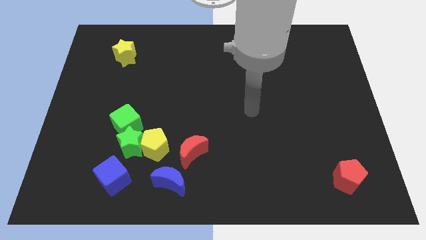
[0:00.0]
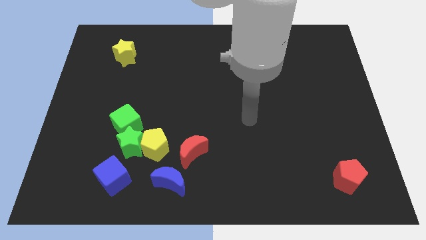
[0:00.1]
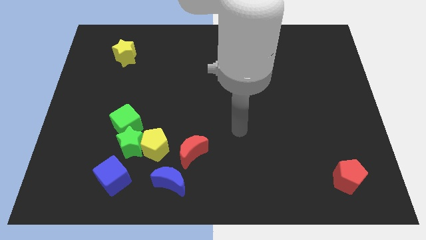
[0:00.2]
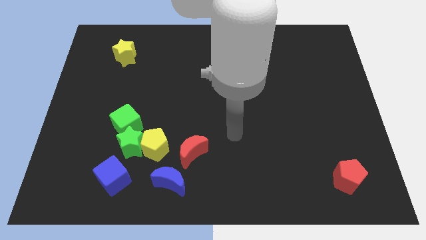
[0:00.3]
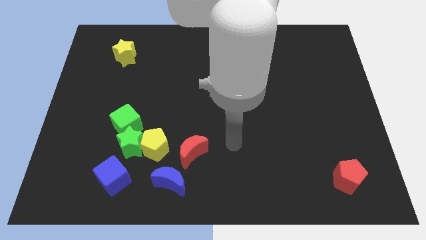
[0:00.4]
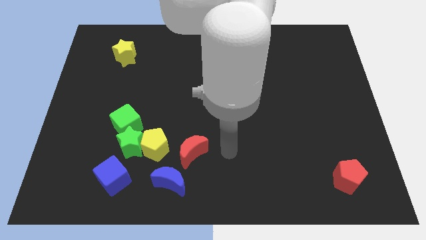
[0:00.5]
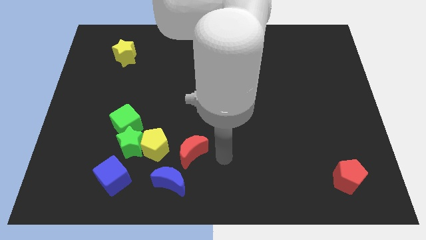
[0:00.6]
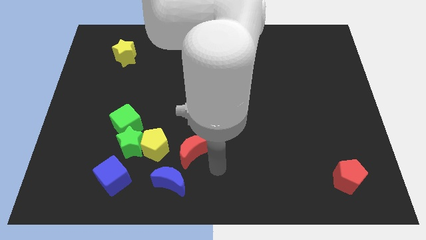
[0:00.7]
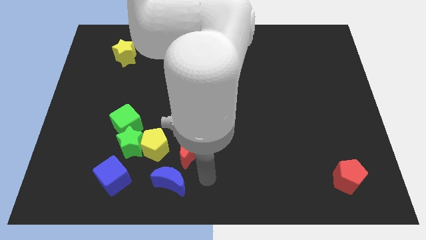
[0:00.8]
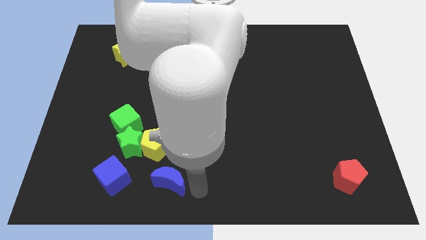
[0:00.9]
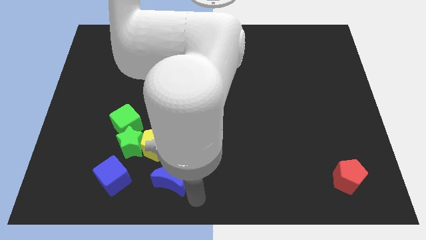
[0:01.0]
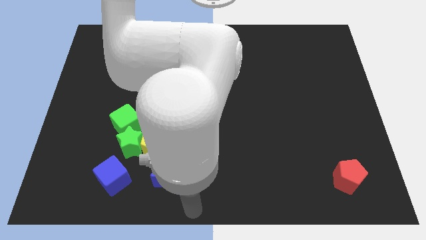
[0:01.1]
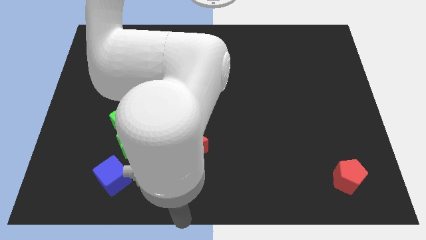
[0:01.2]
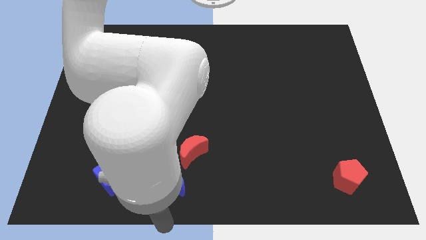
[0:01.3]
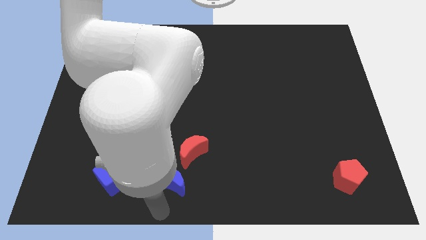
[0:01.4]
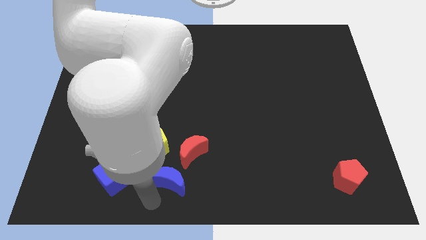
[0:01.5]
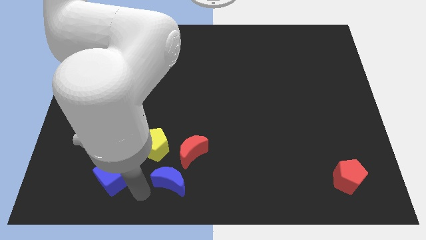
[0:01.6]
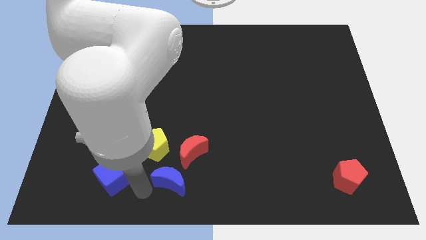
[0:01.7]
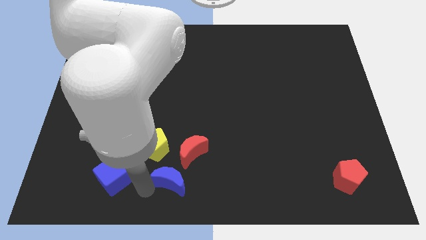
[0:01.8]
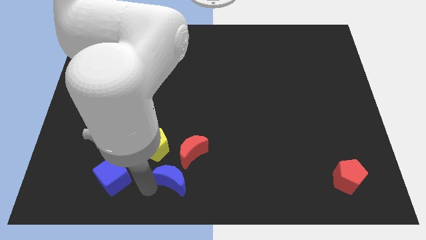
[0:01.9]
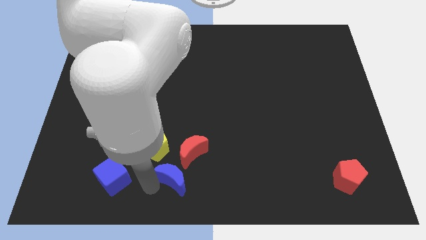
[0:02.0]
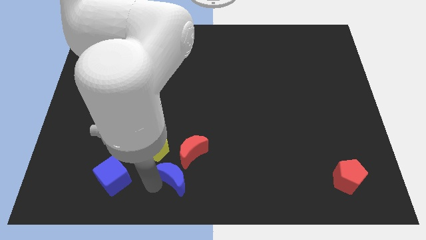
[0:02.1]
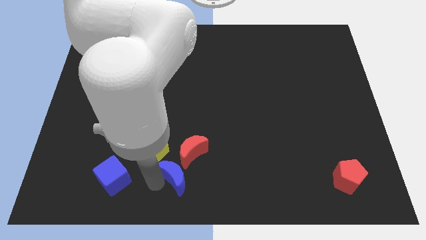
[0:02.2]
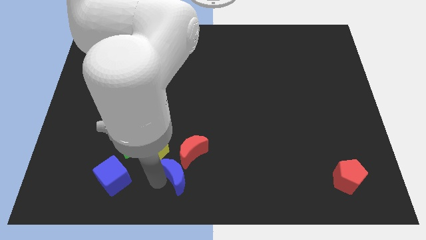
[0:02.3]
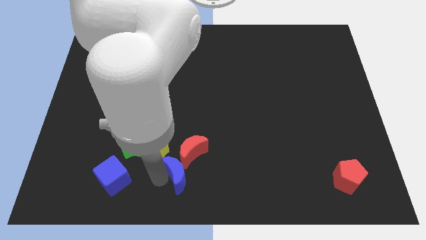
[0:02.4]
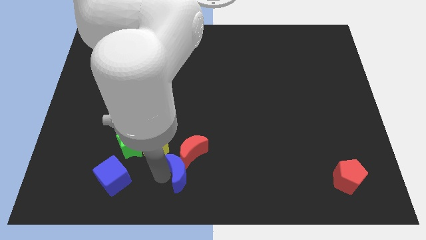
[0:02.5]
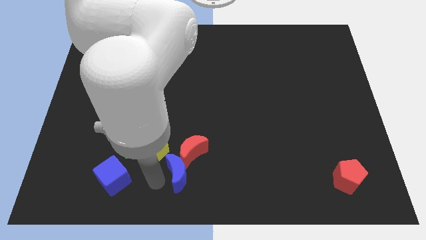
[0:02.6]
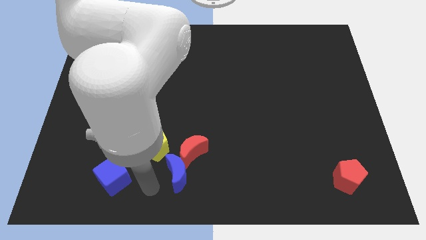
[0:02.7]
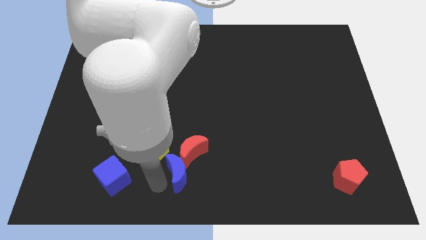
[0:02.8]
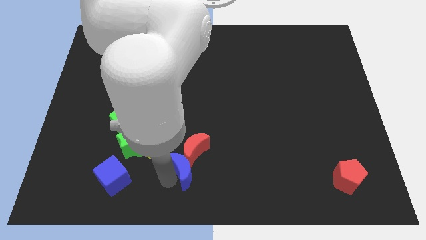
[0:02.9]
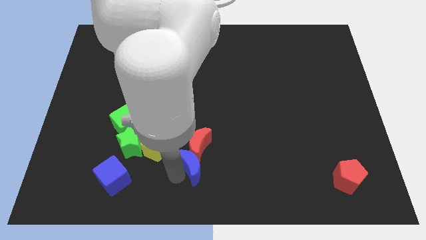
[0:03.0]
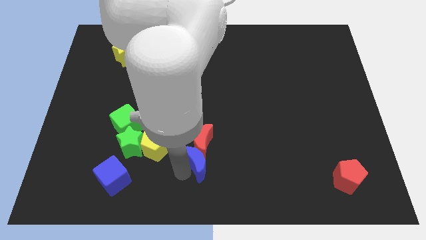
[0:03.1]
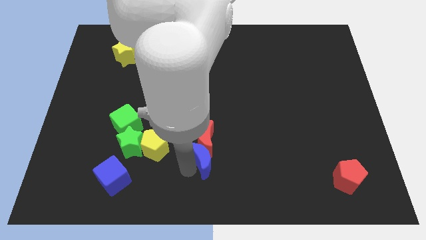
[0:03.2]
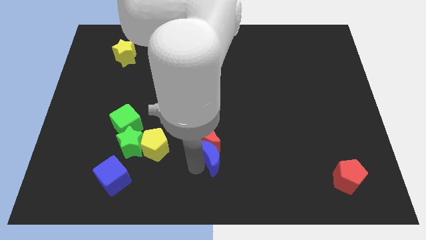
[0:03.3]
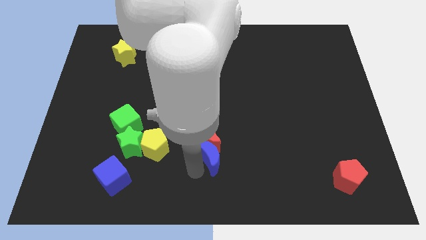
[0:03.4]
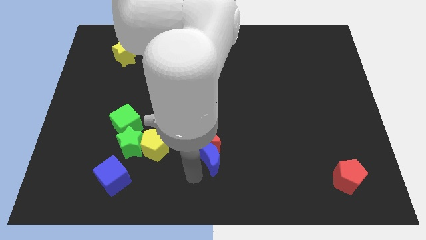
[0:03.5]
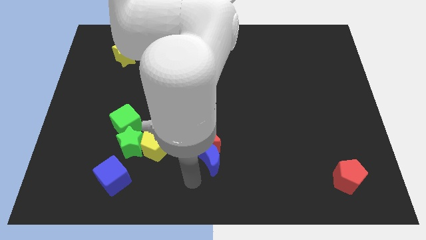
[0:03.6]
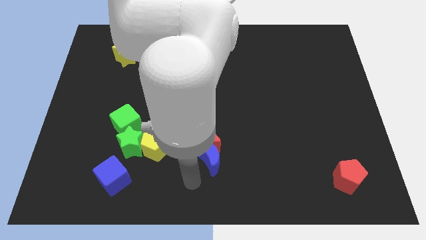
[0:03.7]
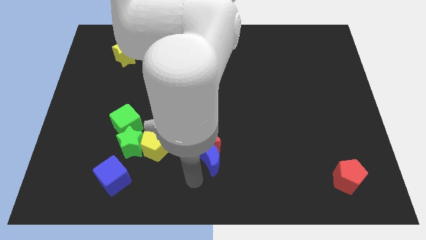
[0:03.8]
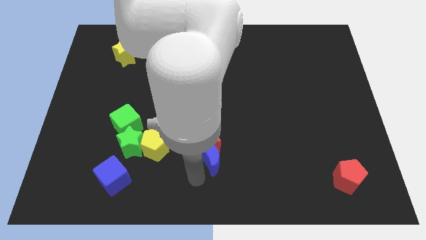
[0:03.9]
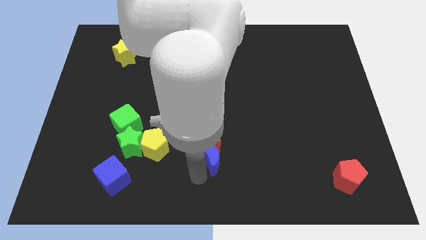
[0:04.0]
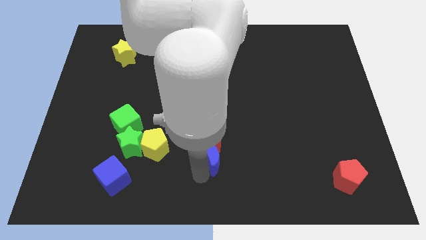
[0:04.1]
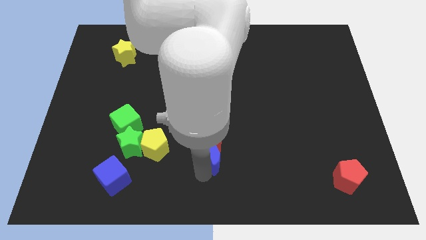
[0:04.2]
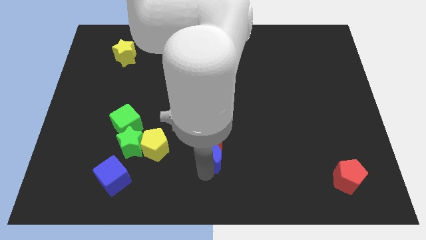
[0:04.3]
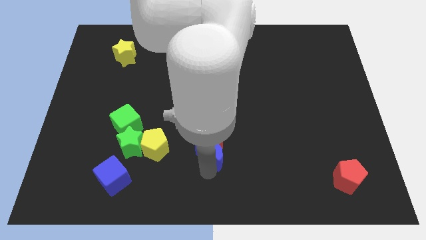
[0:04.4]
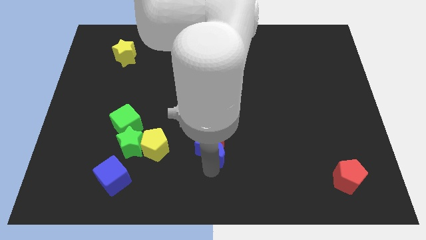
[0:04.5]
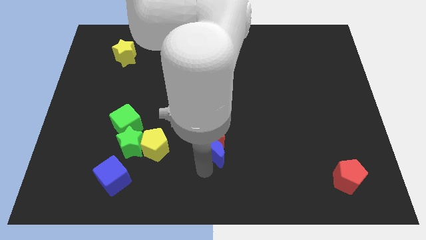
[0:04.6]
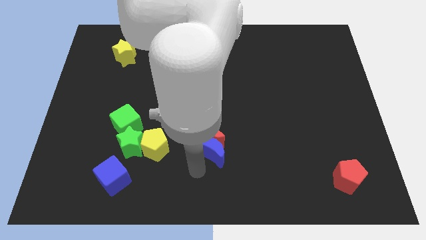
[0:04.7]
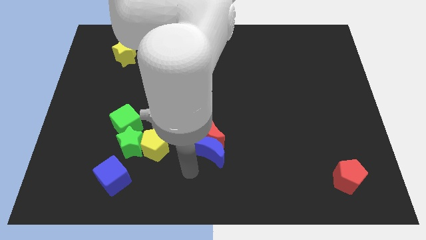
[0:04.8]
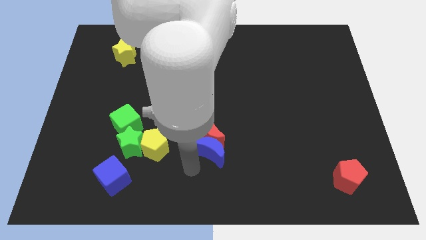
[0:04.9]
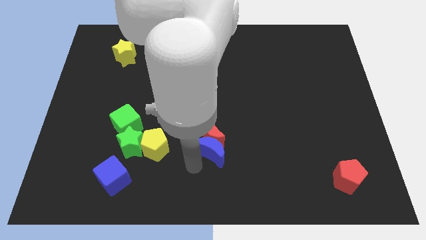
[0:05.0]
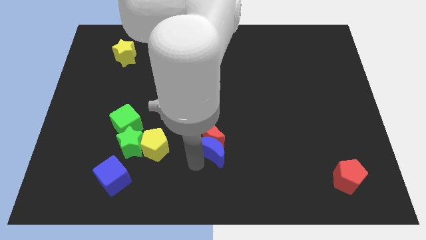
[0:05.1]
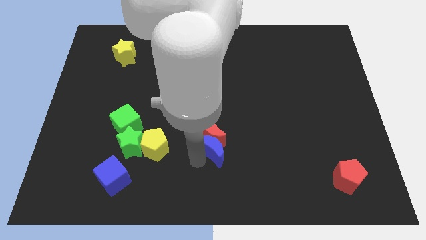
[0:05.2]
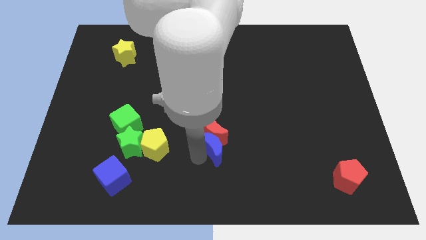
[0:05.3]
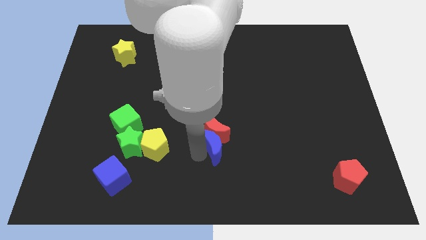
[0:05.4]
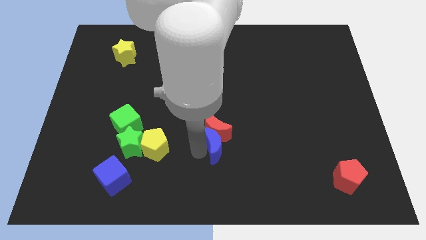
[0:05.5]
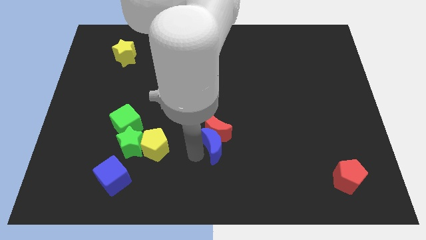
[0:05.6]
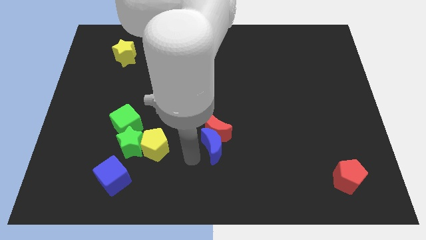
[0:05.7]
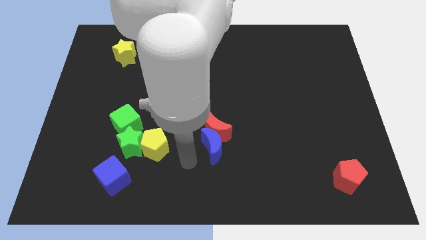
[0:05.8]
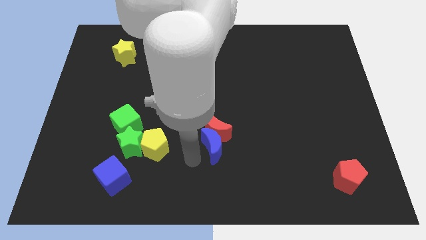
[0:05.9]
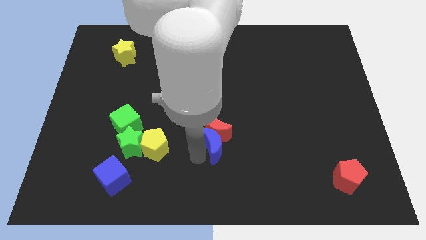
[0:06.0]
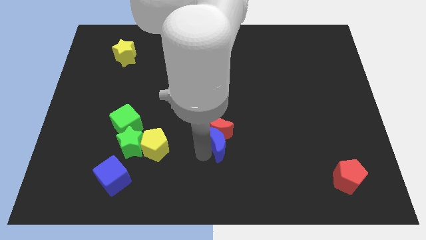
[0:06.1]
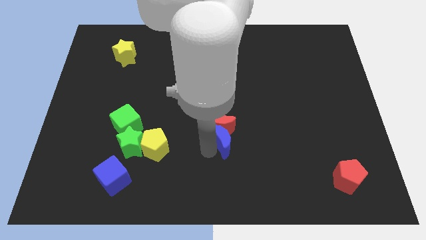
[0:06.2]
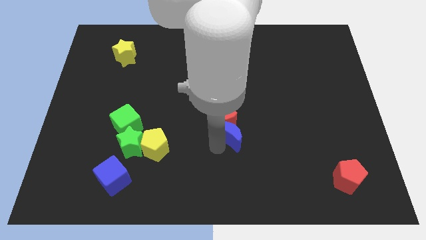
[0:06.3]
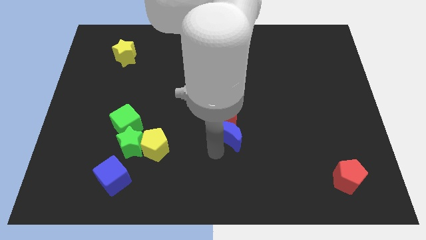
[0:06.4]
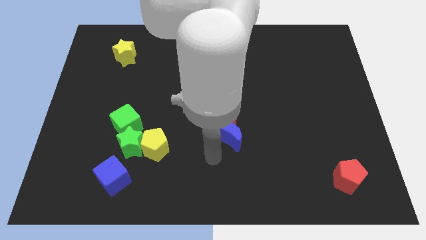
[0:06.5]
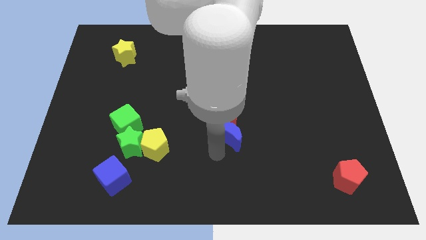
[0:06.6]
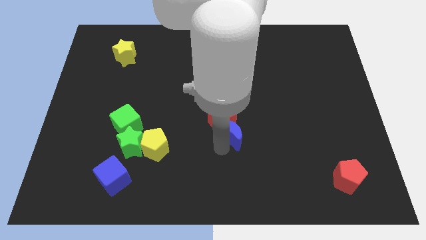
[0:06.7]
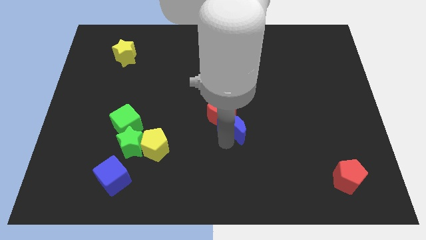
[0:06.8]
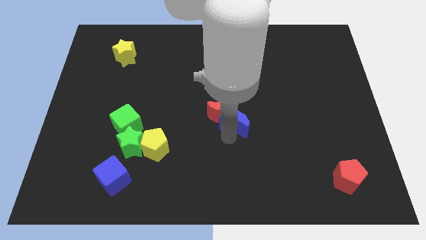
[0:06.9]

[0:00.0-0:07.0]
slide the blue moon up and then right

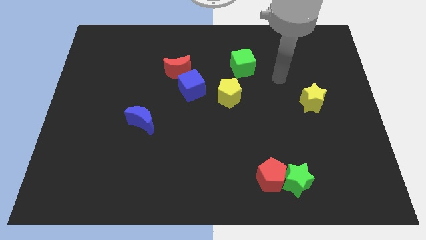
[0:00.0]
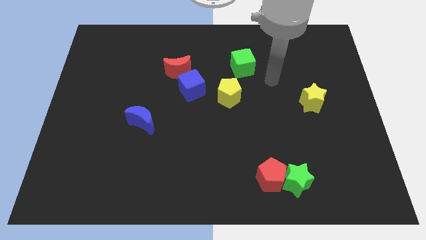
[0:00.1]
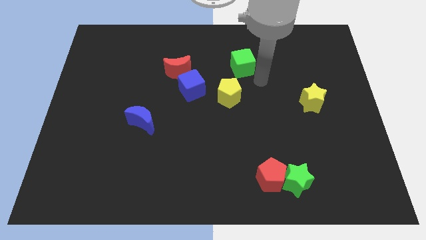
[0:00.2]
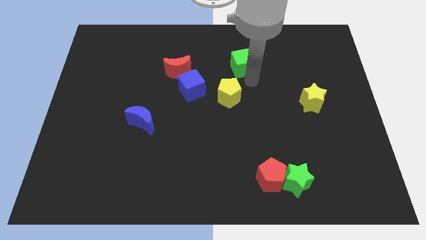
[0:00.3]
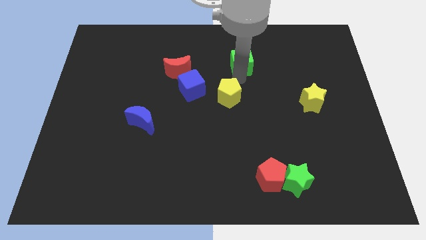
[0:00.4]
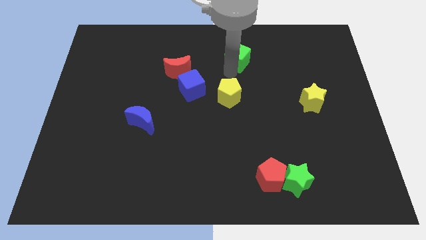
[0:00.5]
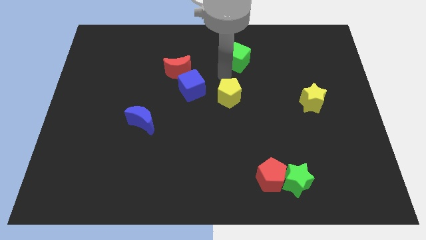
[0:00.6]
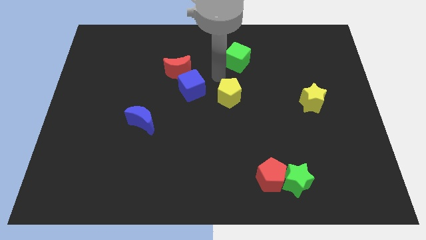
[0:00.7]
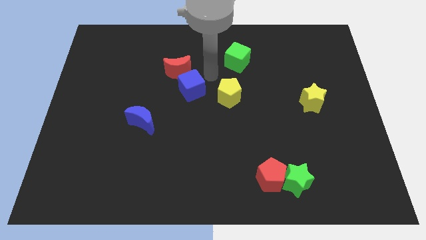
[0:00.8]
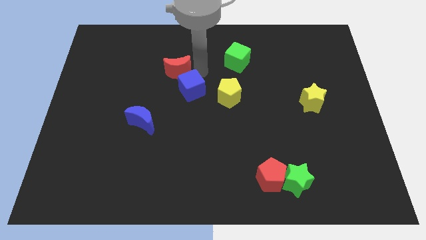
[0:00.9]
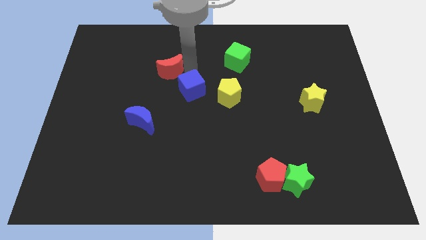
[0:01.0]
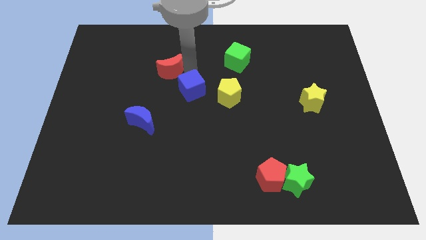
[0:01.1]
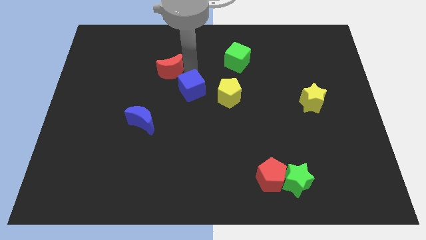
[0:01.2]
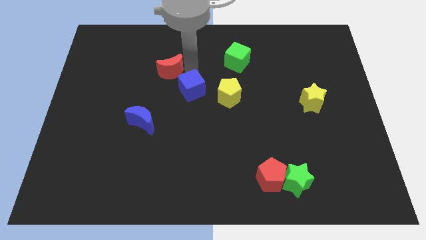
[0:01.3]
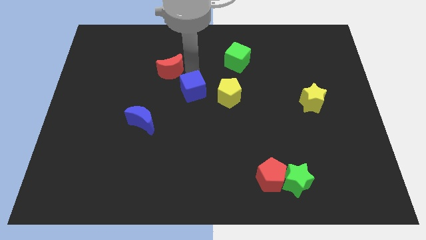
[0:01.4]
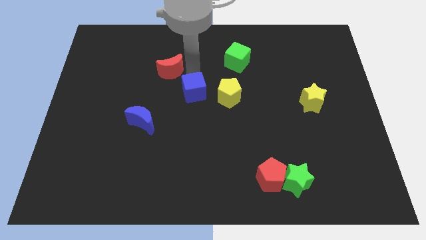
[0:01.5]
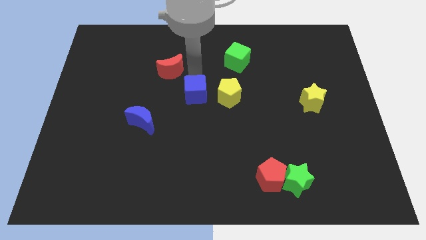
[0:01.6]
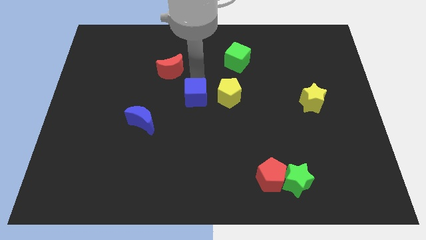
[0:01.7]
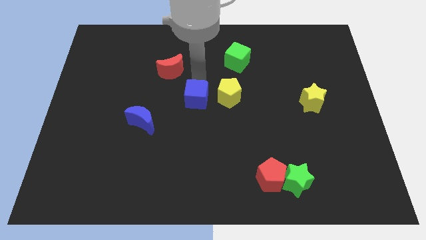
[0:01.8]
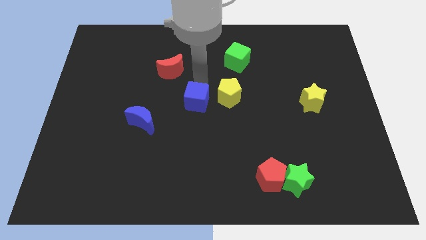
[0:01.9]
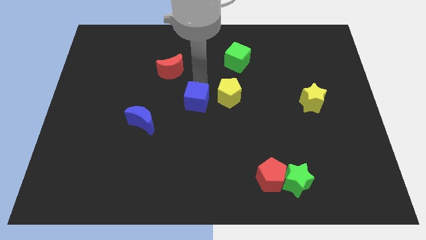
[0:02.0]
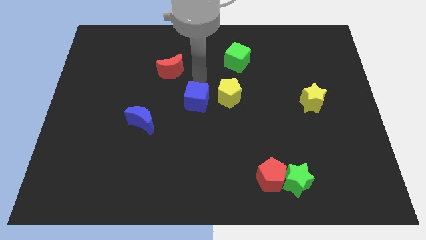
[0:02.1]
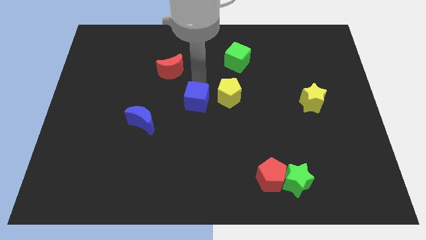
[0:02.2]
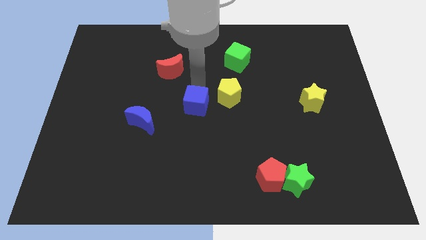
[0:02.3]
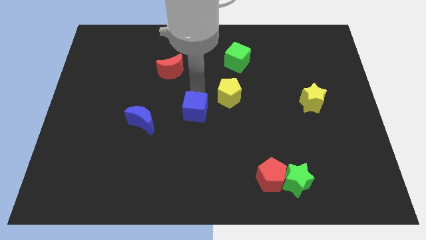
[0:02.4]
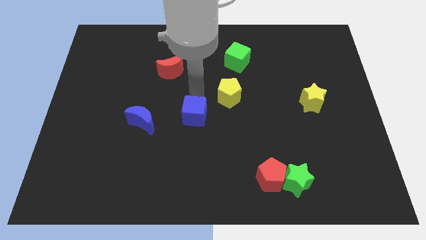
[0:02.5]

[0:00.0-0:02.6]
slide the blue cube somewhat down
